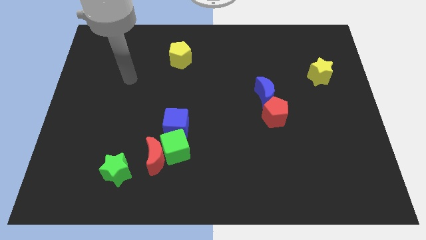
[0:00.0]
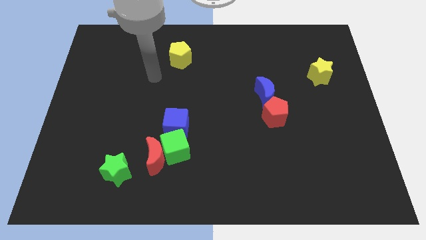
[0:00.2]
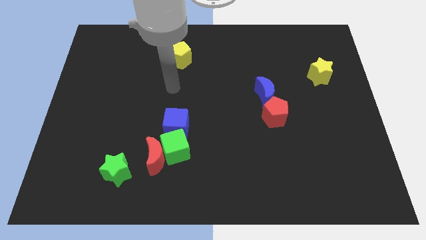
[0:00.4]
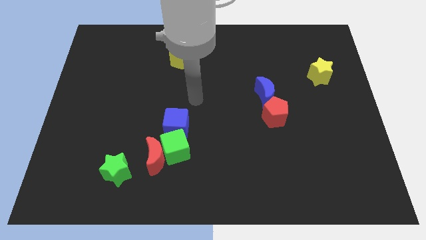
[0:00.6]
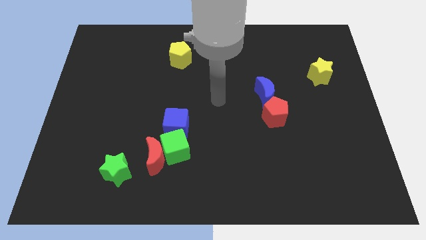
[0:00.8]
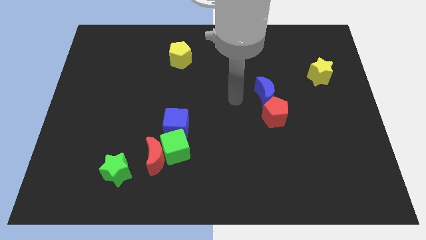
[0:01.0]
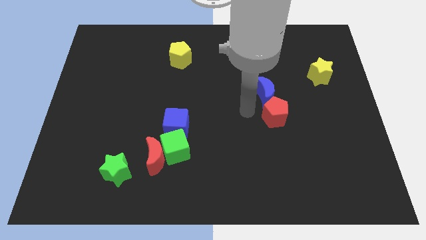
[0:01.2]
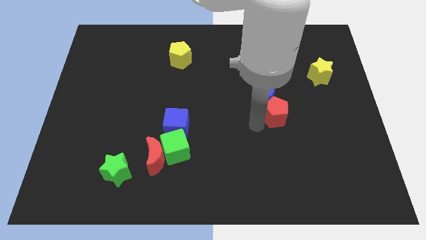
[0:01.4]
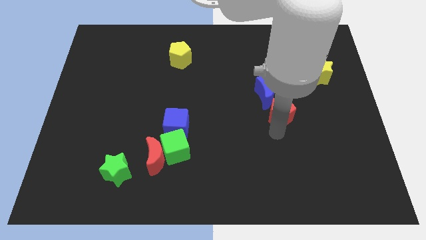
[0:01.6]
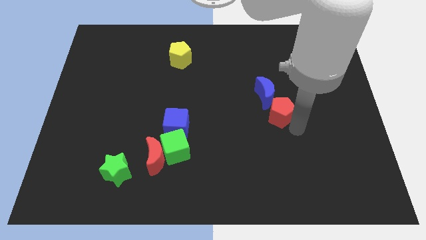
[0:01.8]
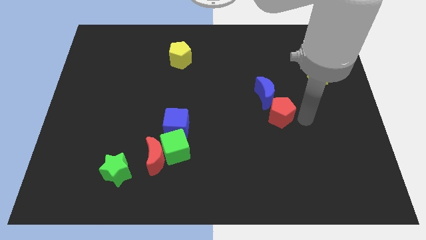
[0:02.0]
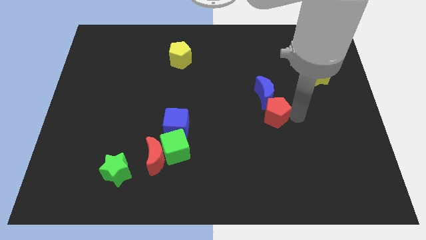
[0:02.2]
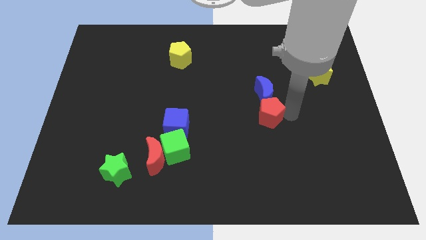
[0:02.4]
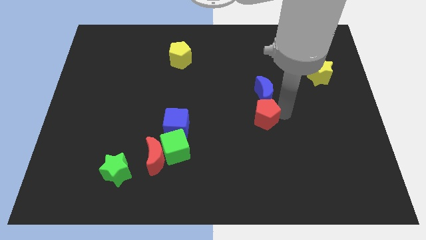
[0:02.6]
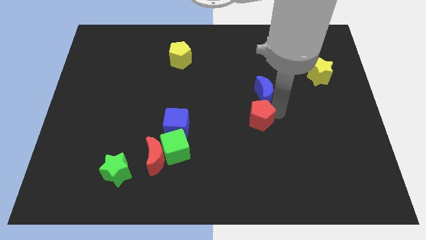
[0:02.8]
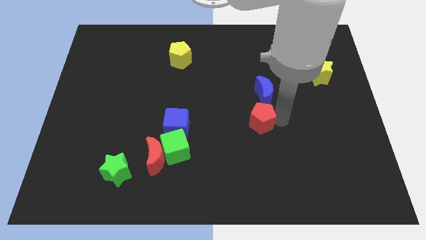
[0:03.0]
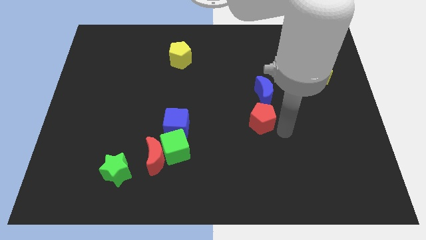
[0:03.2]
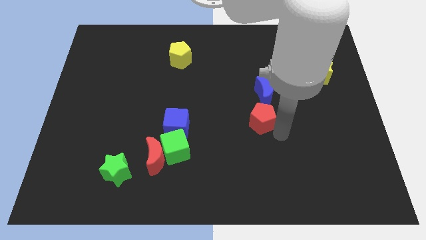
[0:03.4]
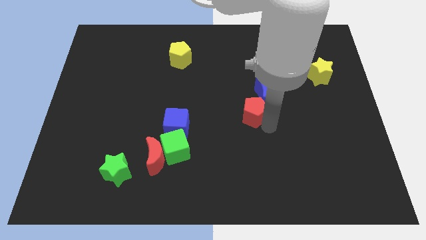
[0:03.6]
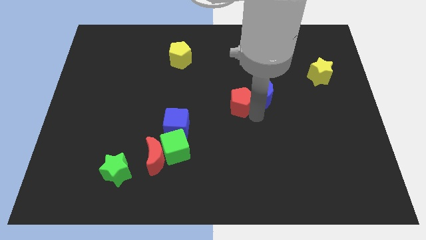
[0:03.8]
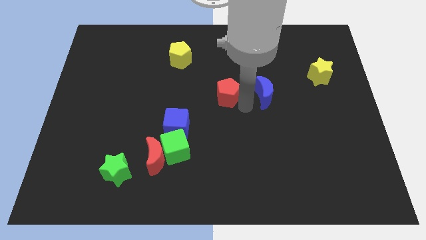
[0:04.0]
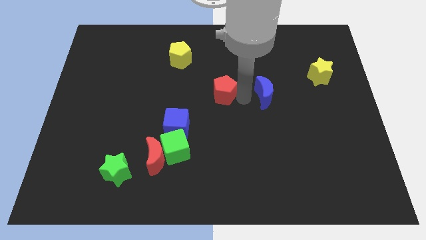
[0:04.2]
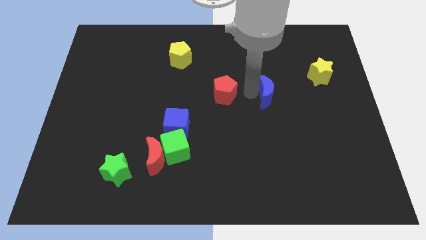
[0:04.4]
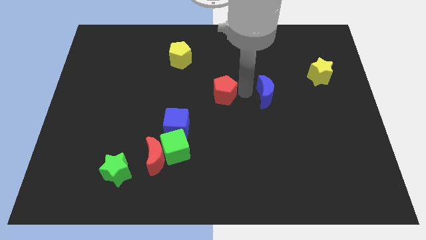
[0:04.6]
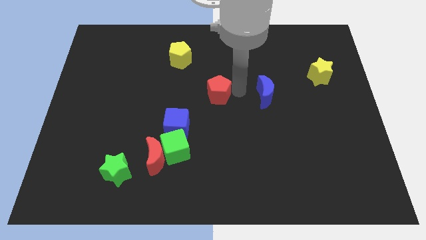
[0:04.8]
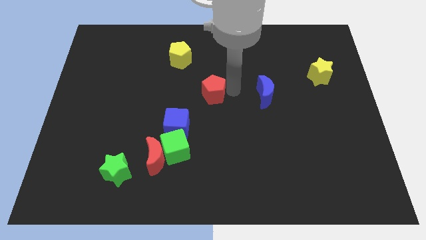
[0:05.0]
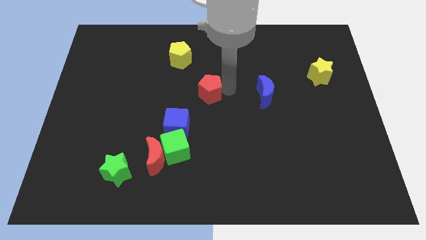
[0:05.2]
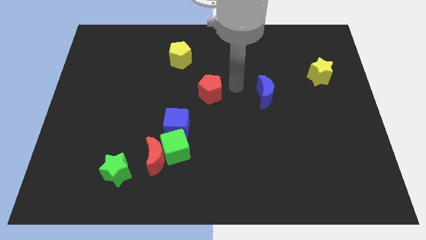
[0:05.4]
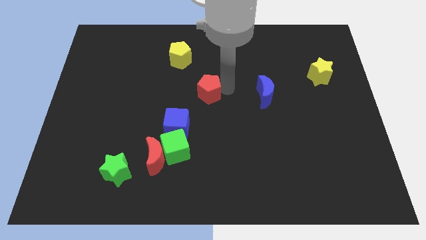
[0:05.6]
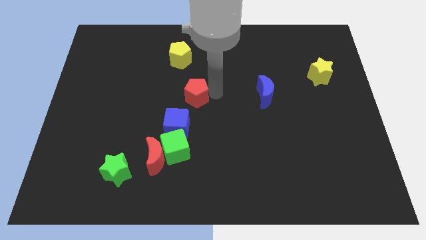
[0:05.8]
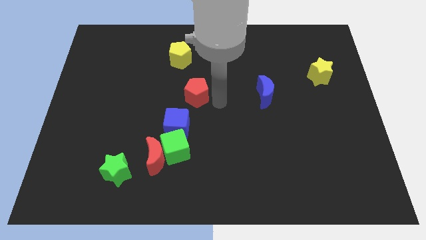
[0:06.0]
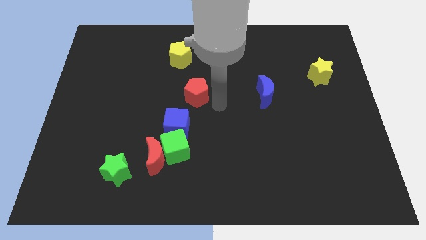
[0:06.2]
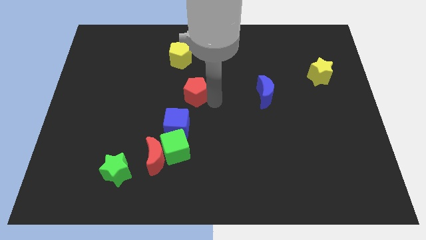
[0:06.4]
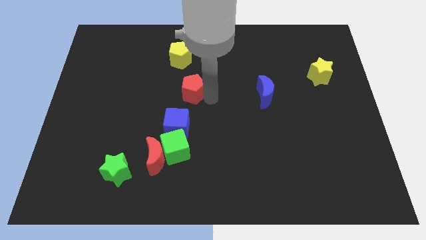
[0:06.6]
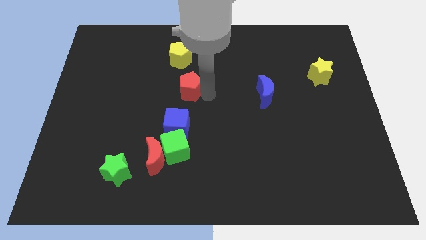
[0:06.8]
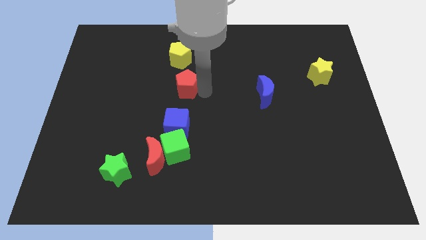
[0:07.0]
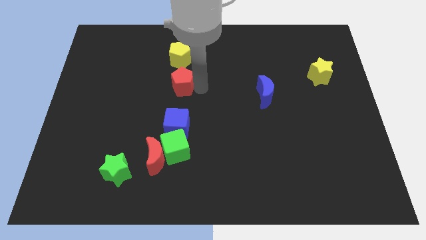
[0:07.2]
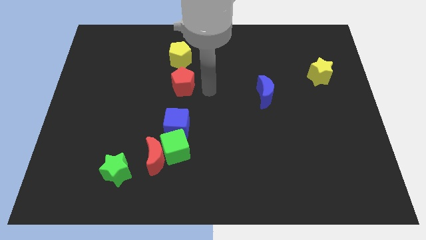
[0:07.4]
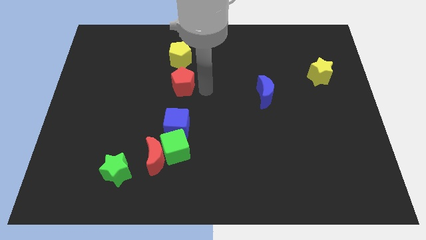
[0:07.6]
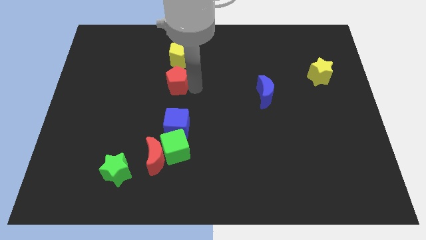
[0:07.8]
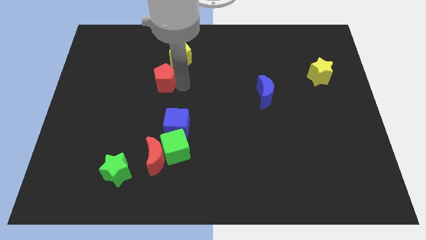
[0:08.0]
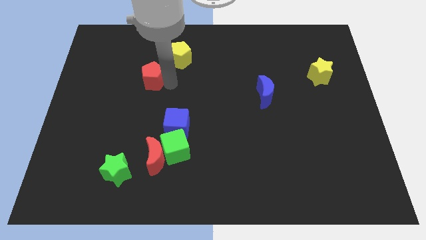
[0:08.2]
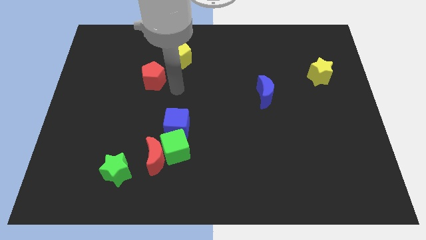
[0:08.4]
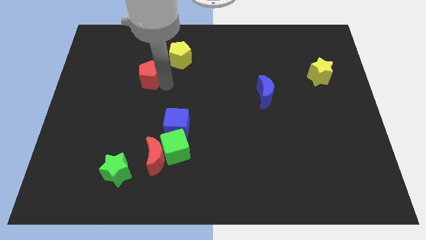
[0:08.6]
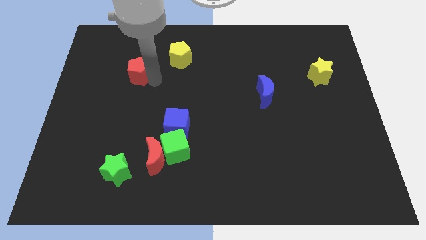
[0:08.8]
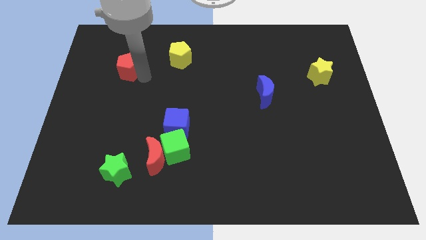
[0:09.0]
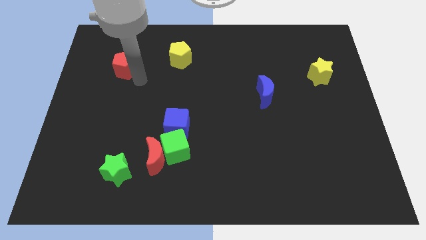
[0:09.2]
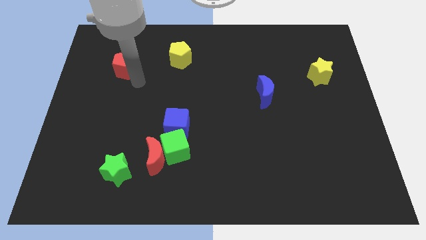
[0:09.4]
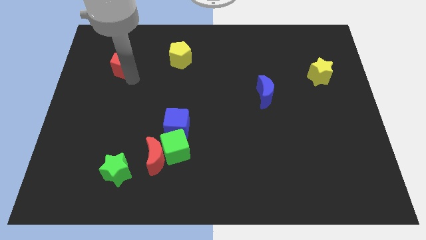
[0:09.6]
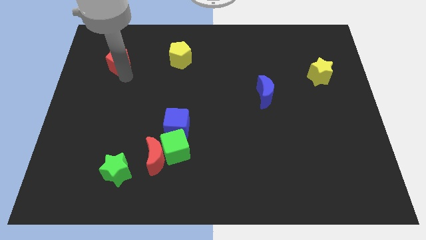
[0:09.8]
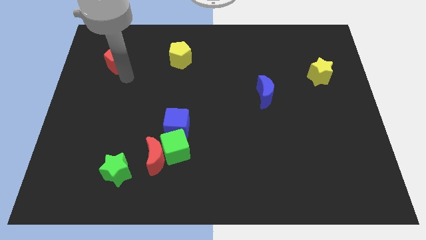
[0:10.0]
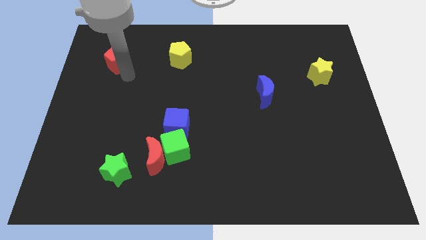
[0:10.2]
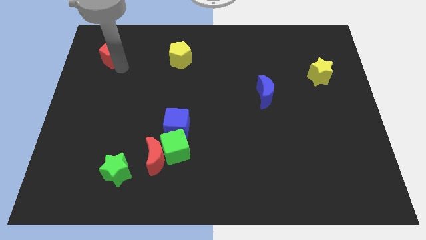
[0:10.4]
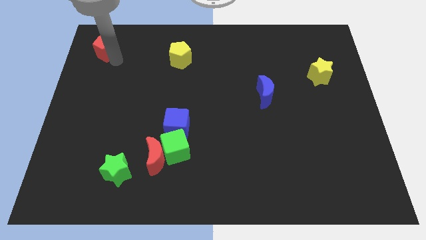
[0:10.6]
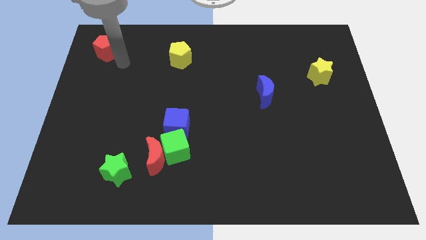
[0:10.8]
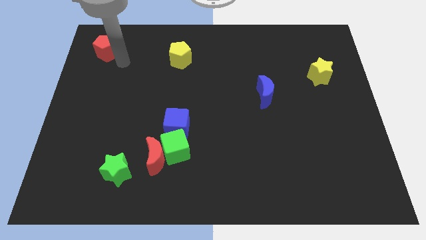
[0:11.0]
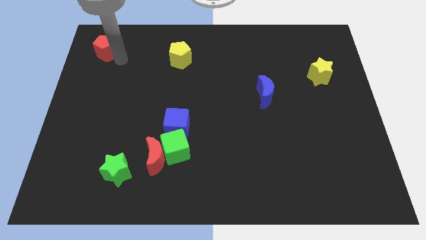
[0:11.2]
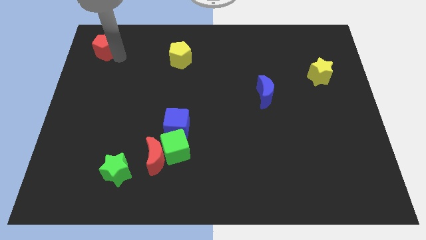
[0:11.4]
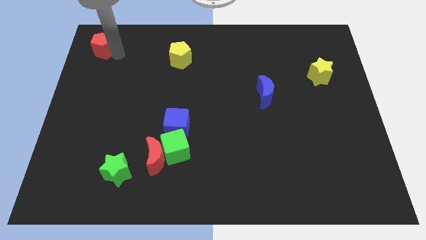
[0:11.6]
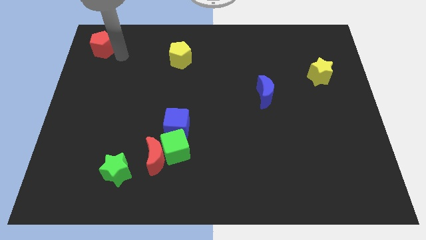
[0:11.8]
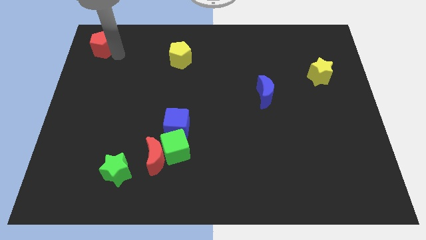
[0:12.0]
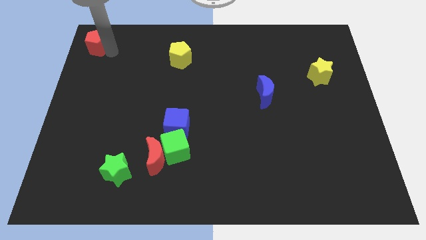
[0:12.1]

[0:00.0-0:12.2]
slide the red pentagon to the upper left corner

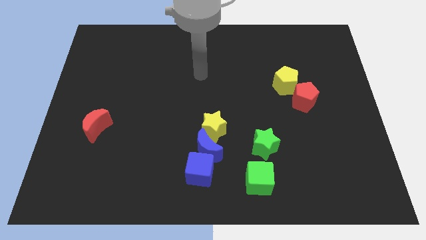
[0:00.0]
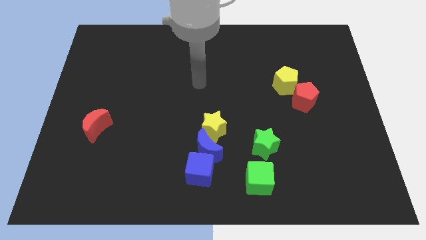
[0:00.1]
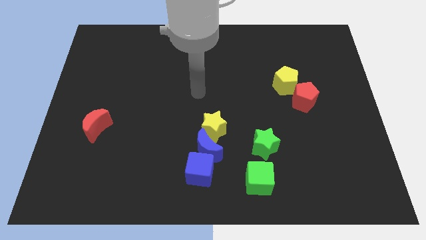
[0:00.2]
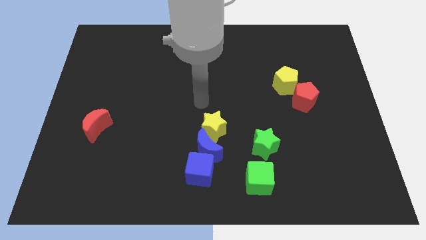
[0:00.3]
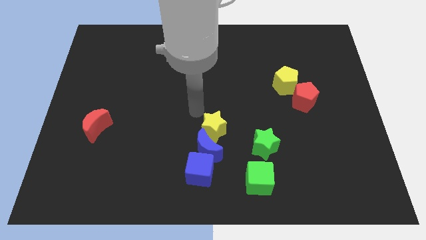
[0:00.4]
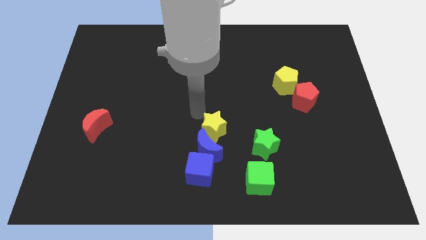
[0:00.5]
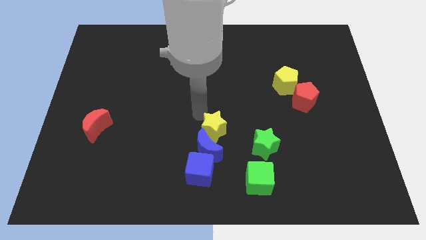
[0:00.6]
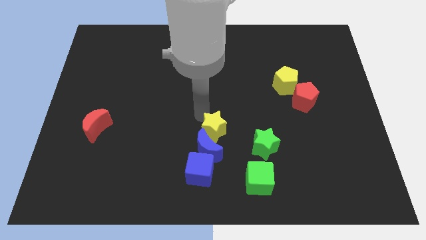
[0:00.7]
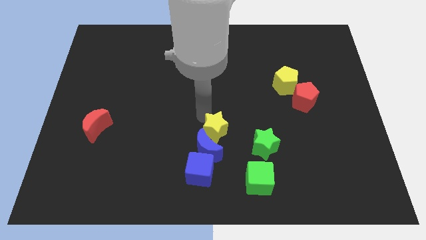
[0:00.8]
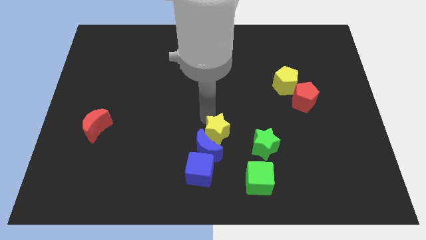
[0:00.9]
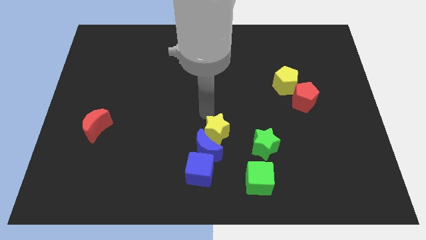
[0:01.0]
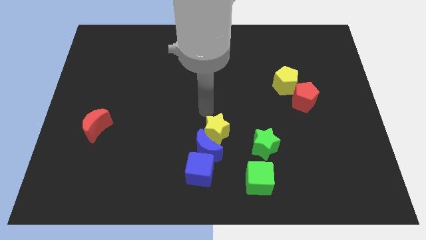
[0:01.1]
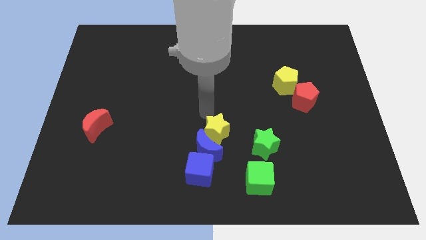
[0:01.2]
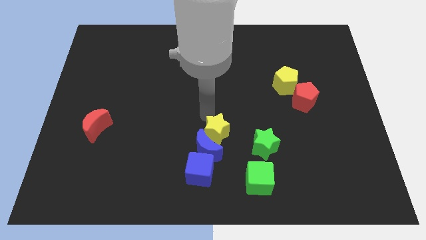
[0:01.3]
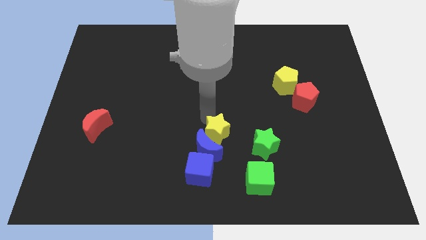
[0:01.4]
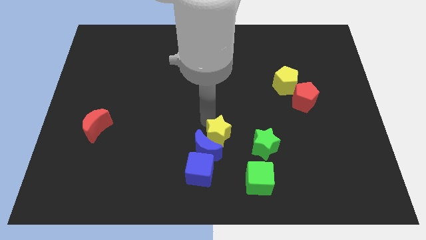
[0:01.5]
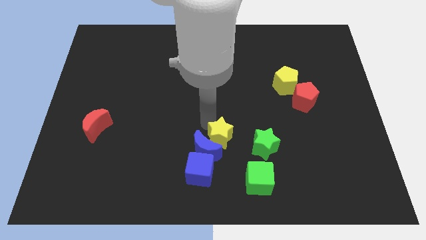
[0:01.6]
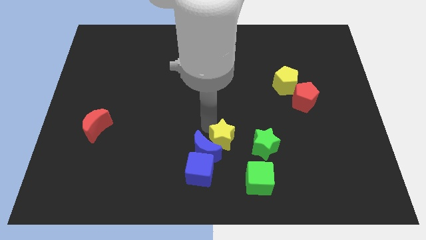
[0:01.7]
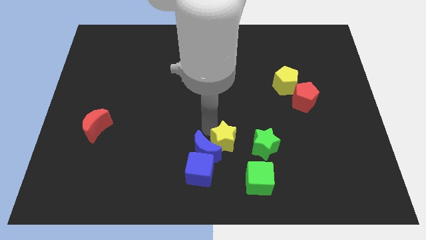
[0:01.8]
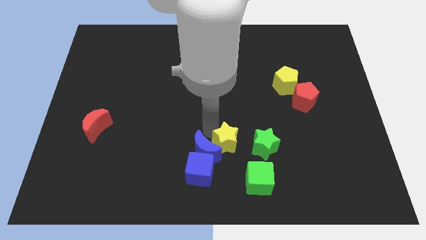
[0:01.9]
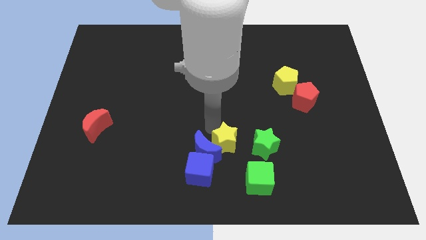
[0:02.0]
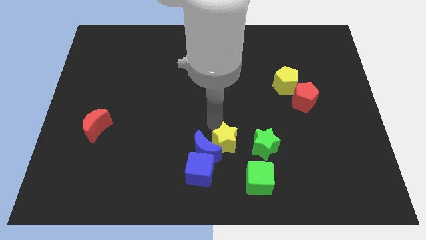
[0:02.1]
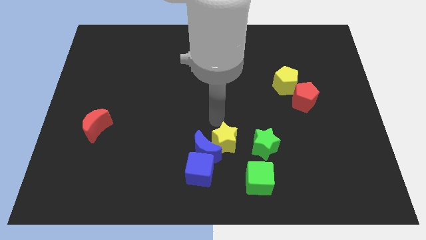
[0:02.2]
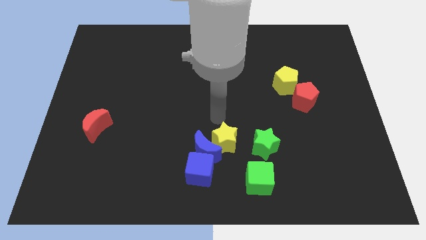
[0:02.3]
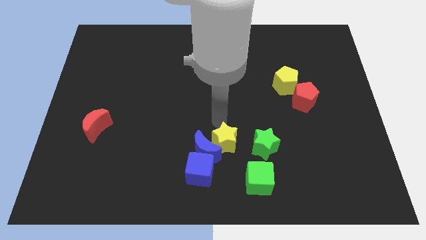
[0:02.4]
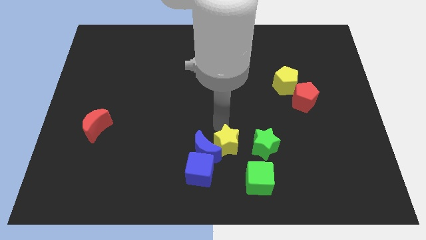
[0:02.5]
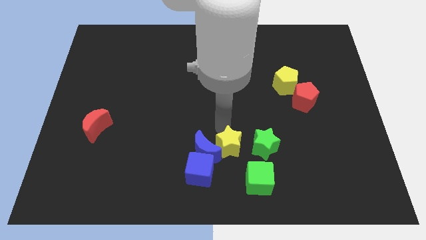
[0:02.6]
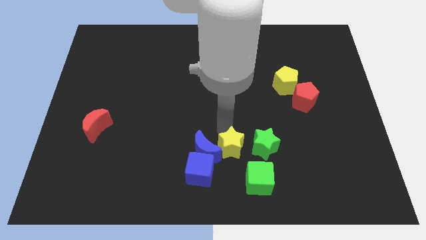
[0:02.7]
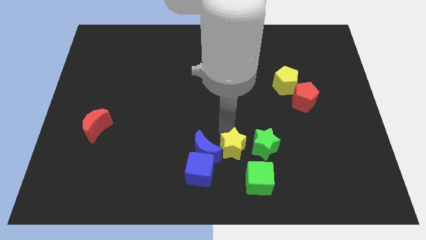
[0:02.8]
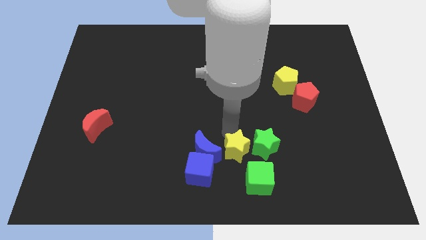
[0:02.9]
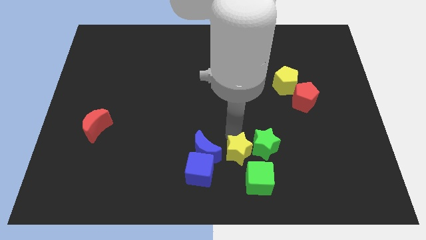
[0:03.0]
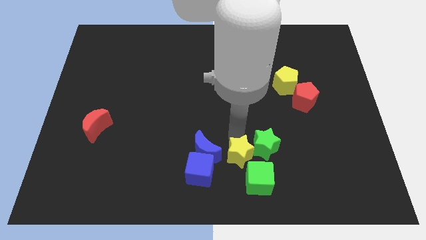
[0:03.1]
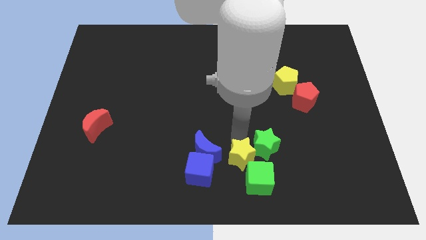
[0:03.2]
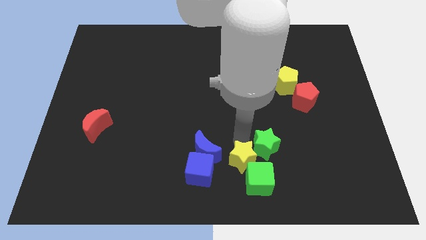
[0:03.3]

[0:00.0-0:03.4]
move the yellow star to the bottom
